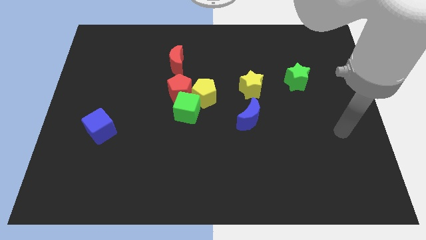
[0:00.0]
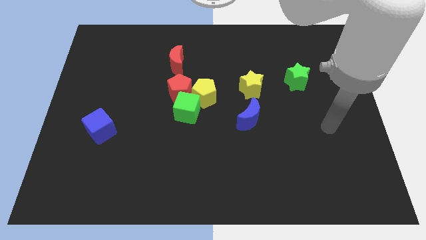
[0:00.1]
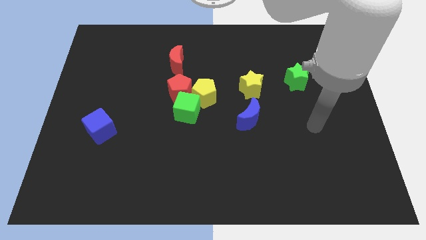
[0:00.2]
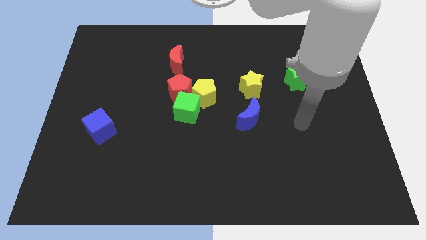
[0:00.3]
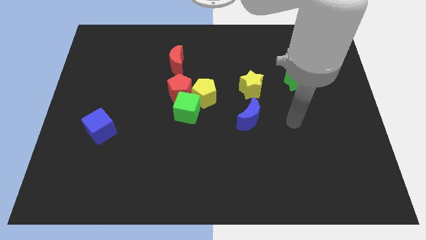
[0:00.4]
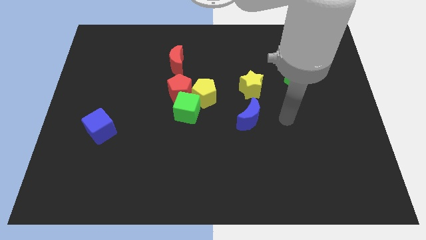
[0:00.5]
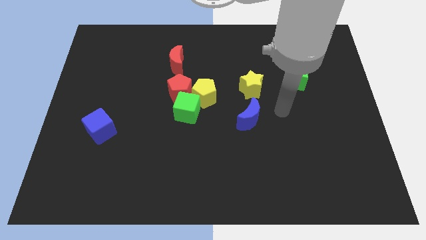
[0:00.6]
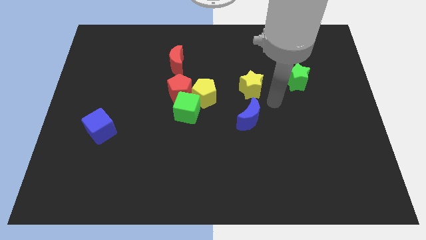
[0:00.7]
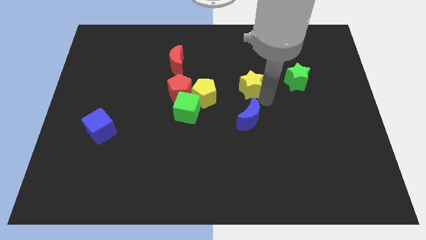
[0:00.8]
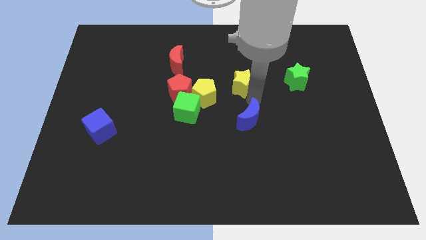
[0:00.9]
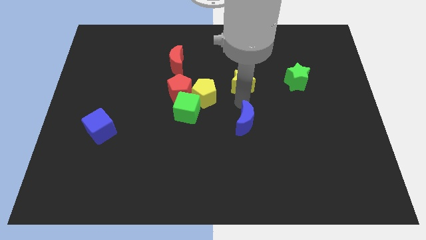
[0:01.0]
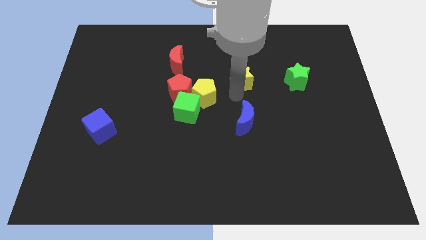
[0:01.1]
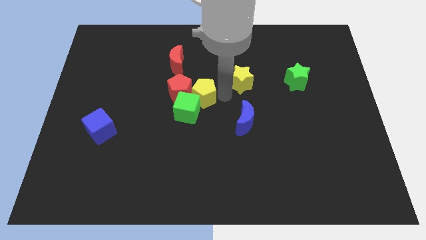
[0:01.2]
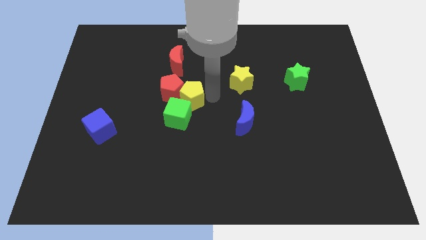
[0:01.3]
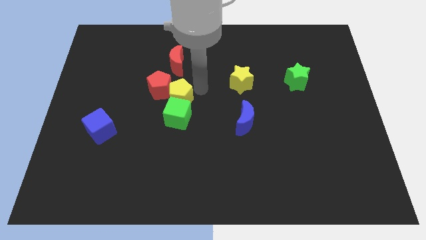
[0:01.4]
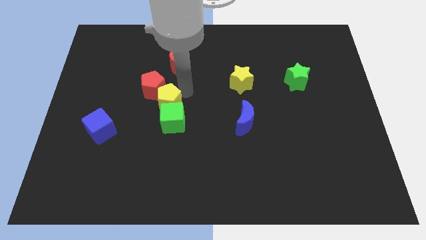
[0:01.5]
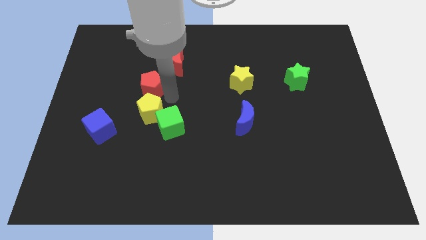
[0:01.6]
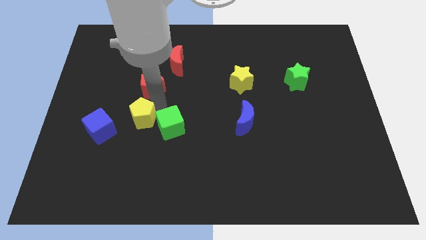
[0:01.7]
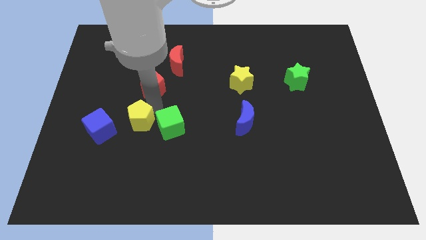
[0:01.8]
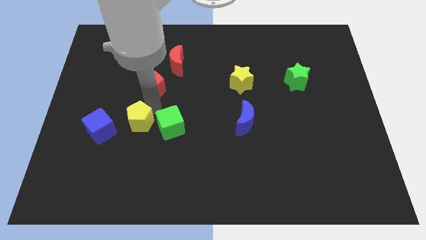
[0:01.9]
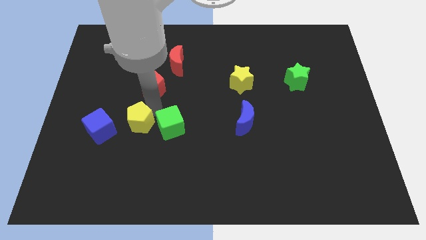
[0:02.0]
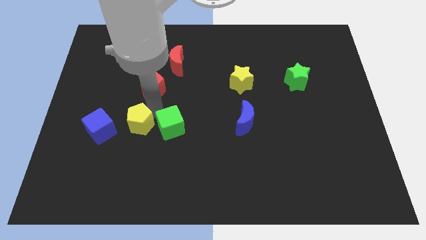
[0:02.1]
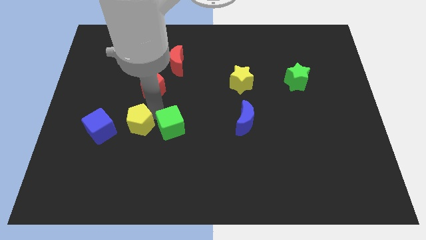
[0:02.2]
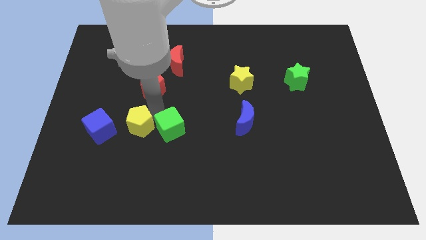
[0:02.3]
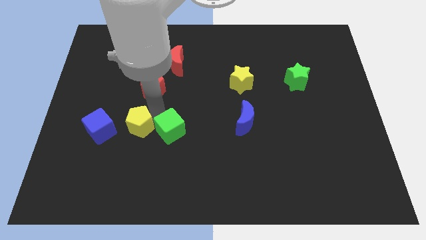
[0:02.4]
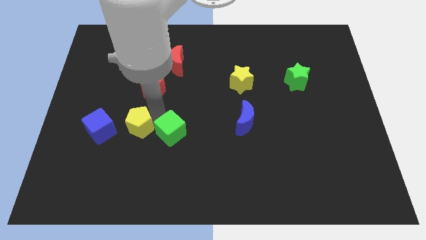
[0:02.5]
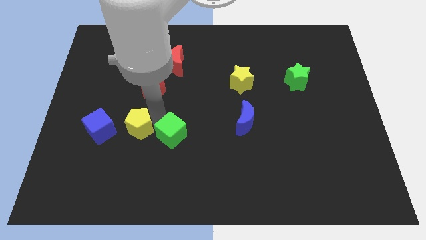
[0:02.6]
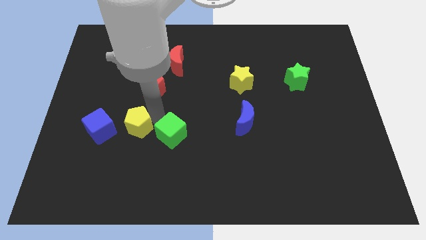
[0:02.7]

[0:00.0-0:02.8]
pull the green cube apart from the red pentagon and yellow pentagon

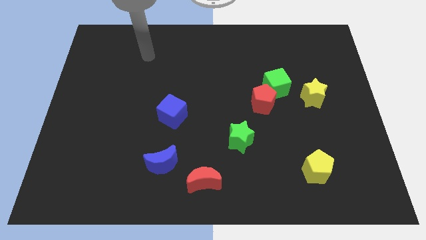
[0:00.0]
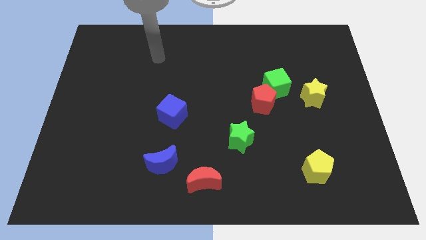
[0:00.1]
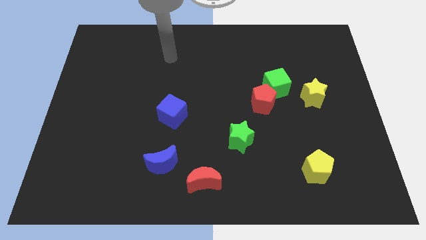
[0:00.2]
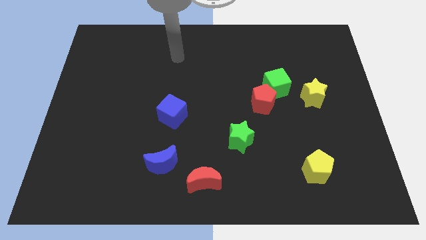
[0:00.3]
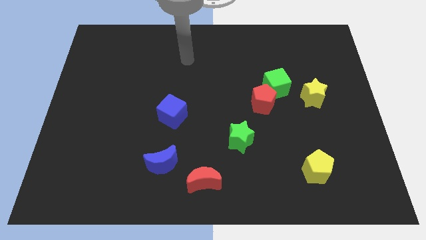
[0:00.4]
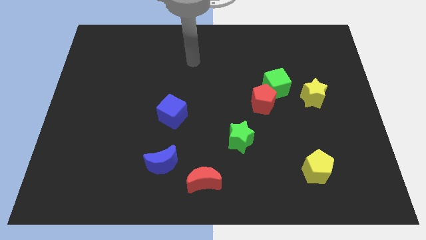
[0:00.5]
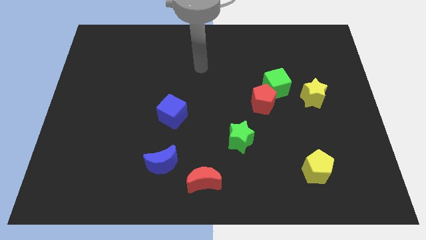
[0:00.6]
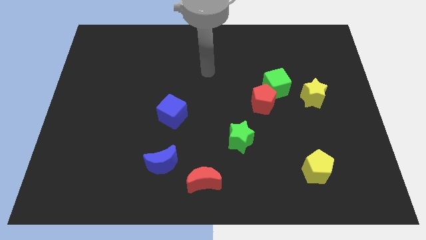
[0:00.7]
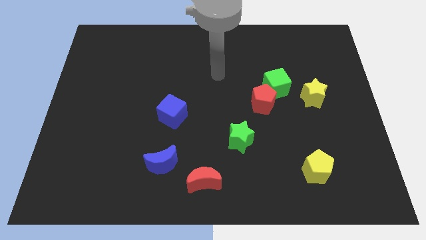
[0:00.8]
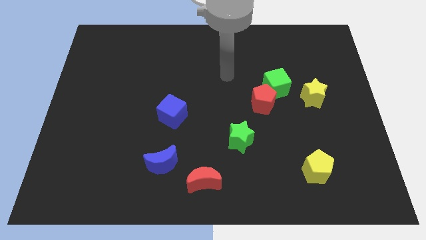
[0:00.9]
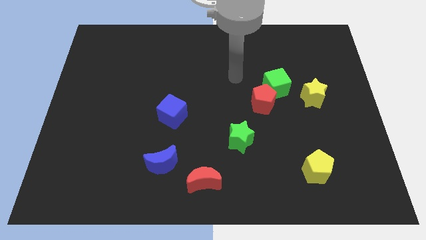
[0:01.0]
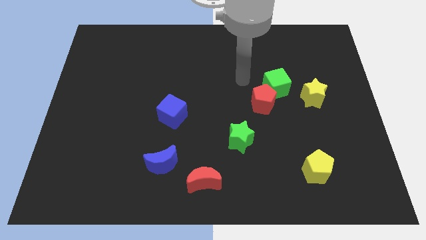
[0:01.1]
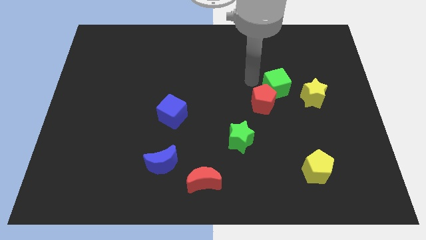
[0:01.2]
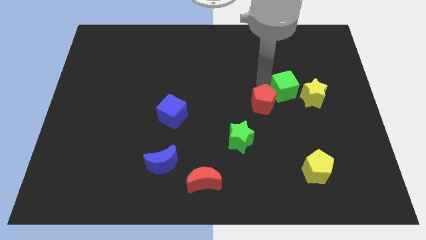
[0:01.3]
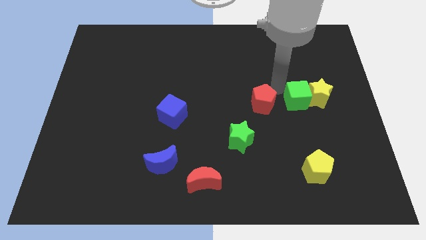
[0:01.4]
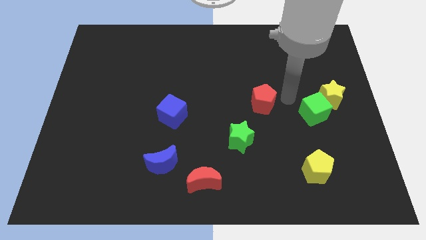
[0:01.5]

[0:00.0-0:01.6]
separate the red pentagon from the green cube

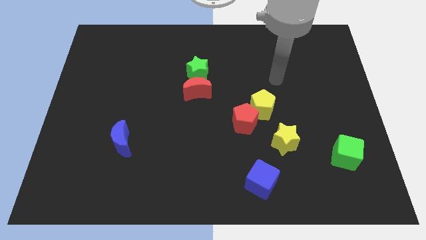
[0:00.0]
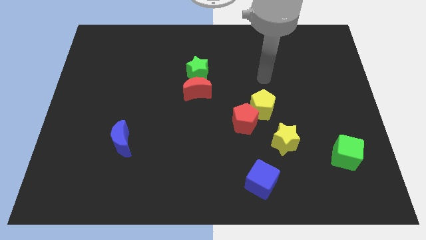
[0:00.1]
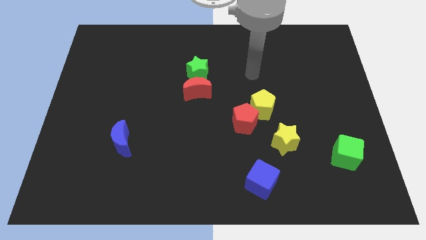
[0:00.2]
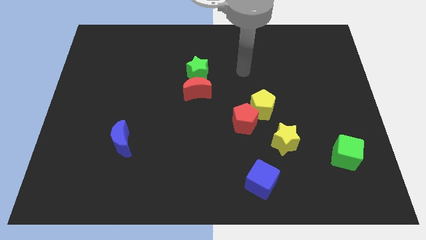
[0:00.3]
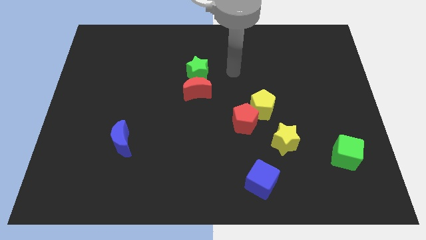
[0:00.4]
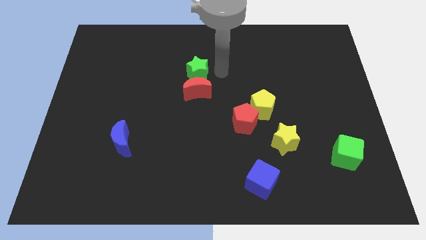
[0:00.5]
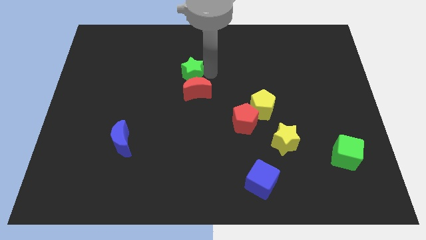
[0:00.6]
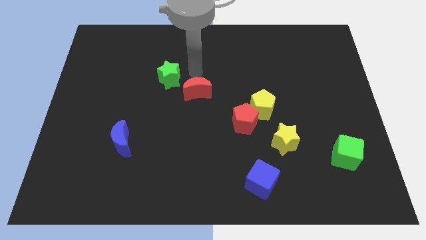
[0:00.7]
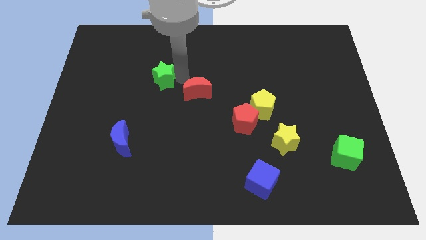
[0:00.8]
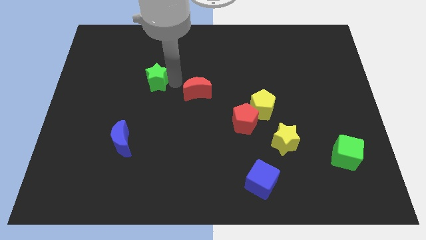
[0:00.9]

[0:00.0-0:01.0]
pull the red moon apart from the green star

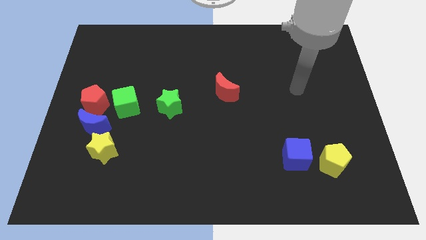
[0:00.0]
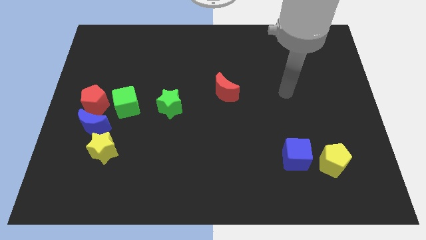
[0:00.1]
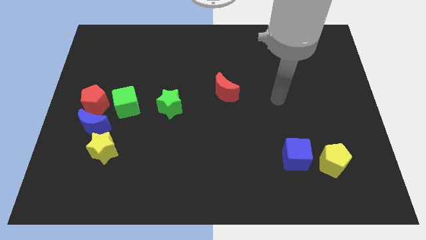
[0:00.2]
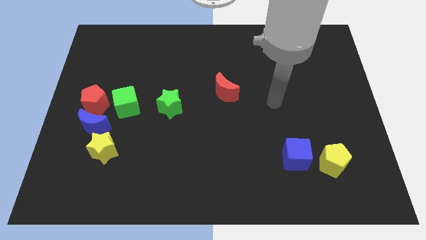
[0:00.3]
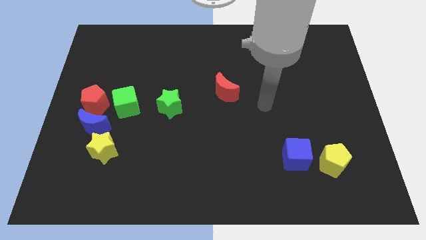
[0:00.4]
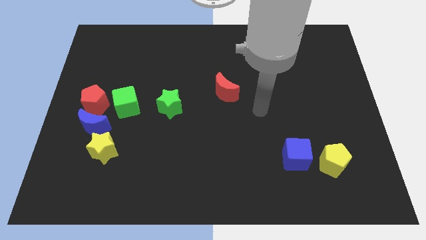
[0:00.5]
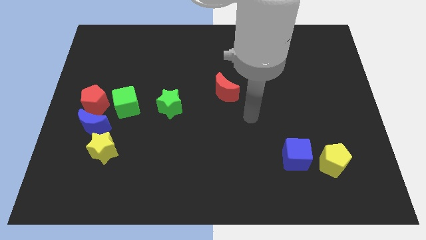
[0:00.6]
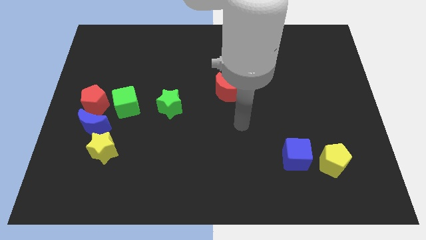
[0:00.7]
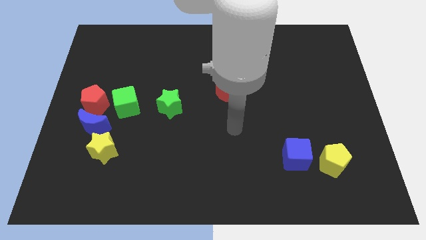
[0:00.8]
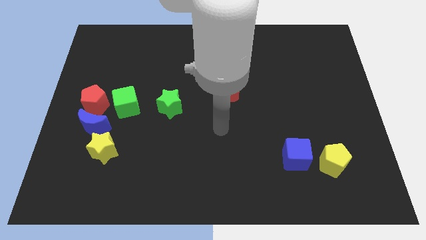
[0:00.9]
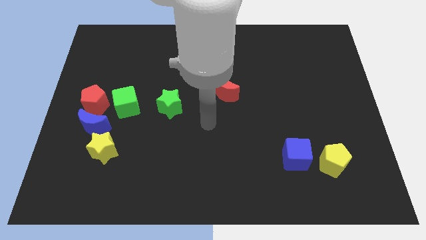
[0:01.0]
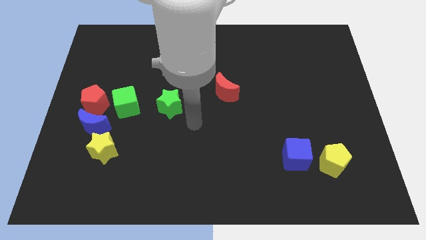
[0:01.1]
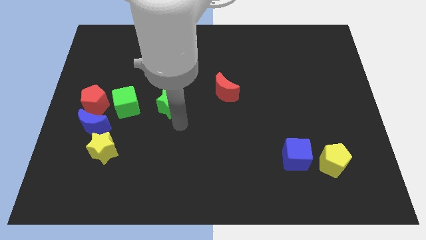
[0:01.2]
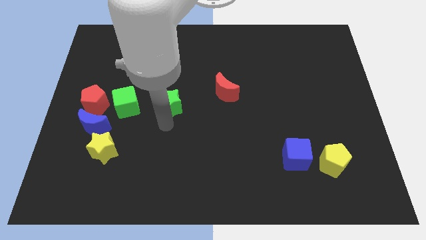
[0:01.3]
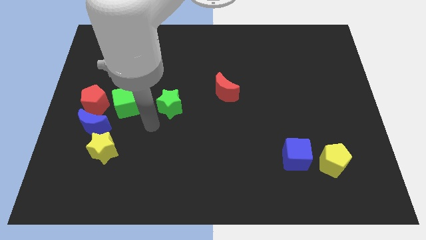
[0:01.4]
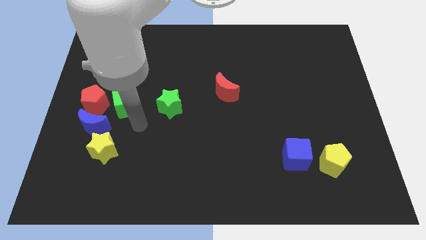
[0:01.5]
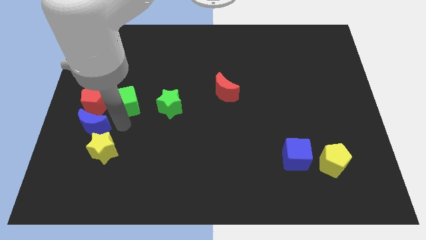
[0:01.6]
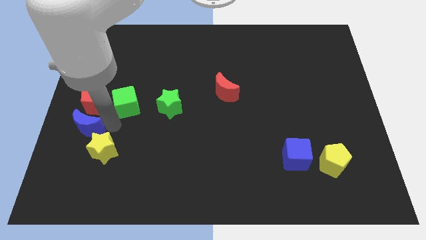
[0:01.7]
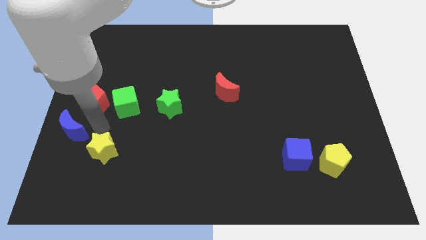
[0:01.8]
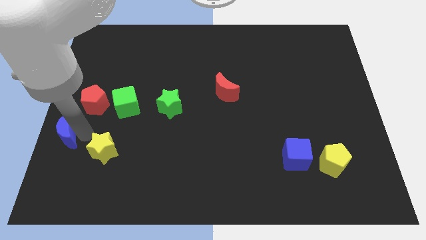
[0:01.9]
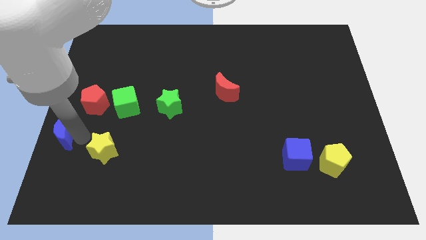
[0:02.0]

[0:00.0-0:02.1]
separate the yellow star from the blue moon

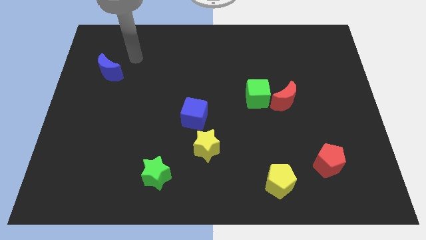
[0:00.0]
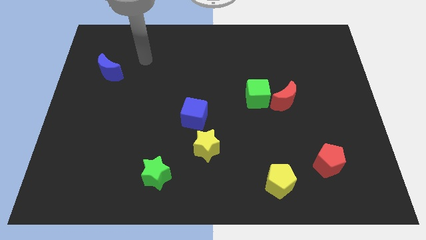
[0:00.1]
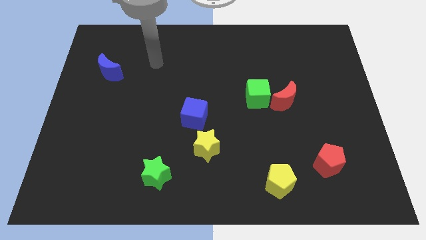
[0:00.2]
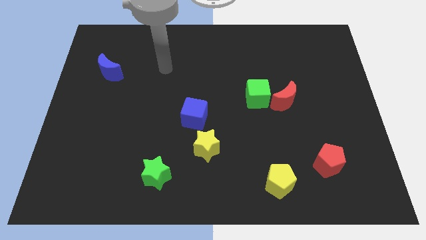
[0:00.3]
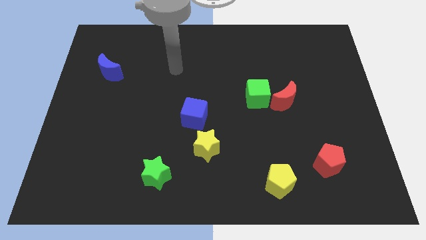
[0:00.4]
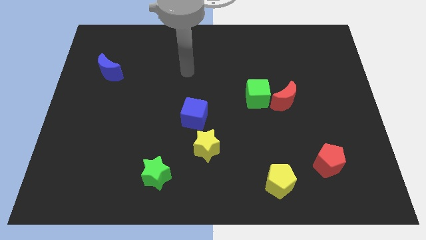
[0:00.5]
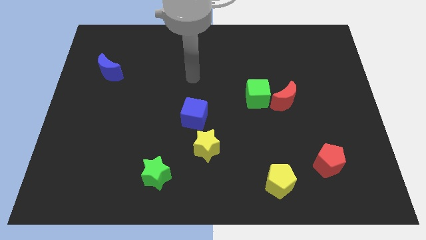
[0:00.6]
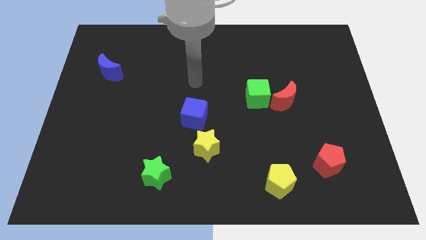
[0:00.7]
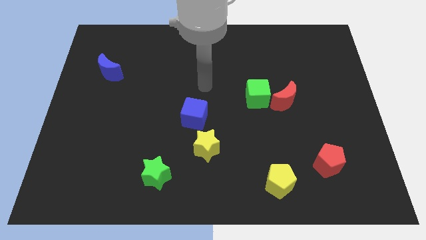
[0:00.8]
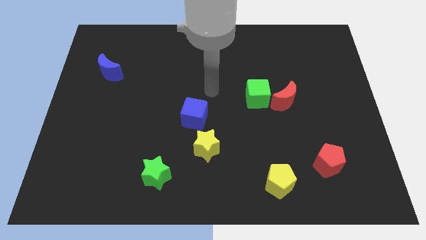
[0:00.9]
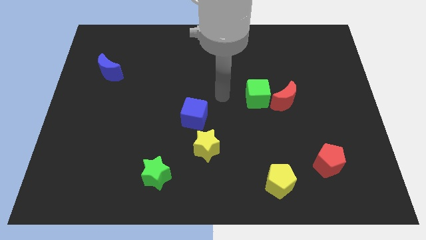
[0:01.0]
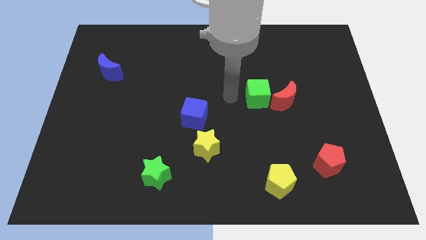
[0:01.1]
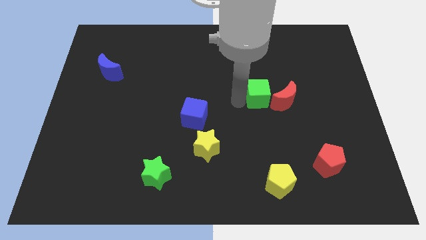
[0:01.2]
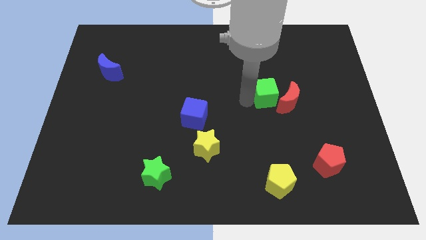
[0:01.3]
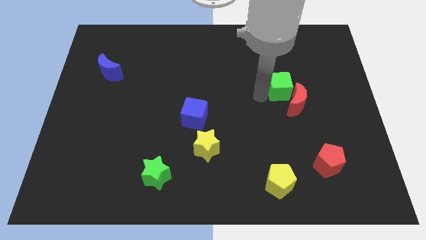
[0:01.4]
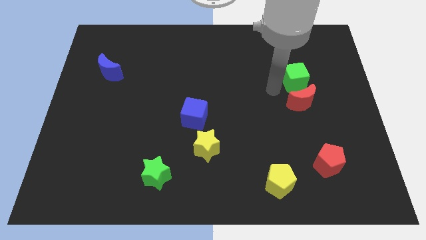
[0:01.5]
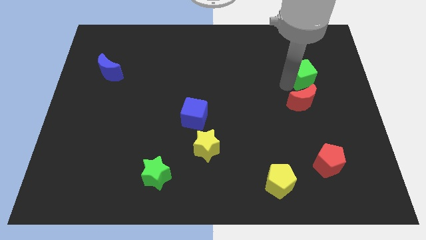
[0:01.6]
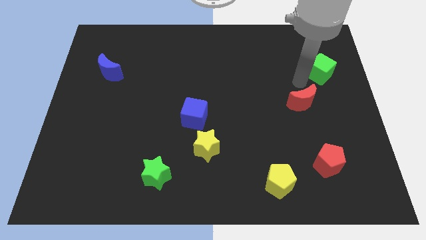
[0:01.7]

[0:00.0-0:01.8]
move the red moon away from the green cube
